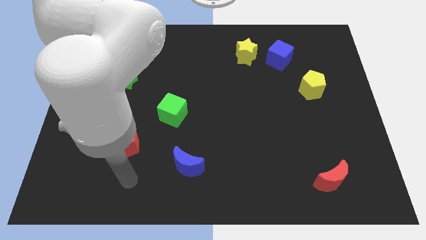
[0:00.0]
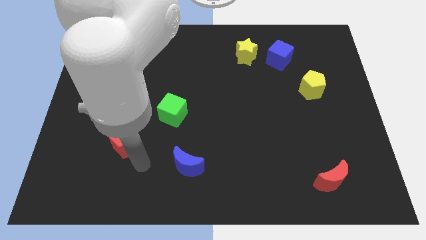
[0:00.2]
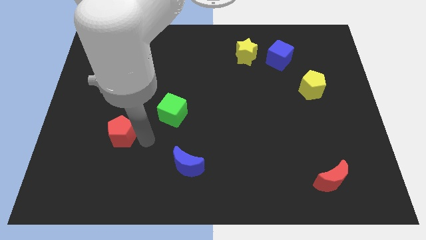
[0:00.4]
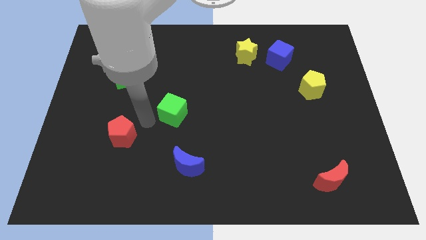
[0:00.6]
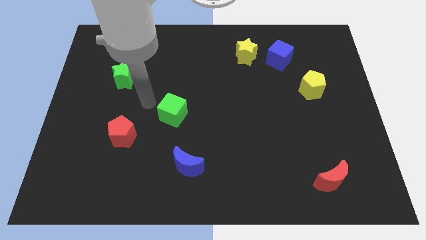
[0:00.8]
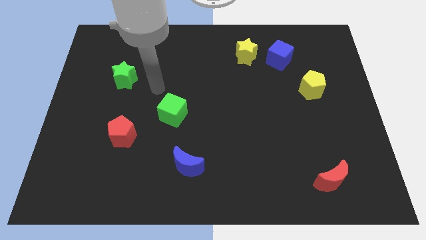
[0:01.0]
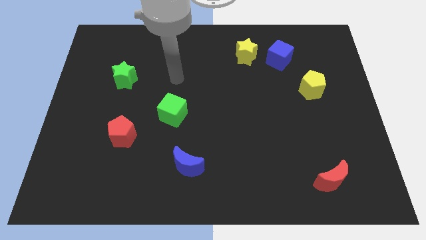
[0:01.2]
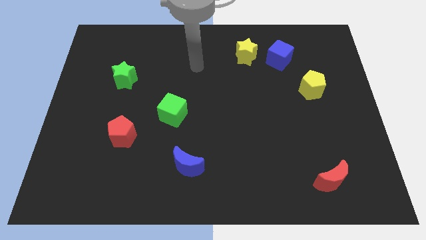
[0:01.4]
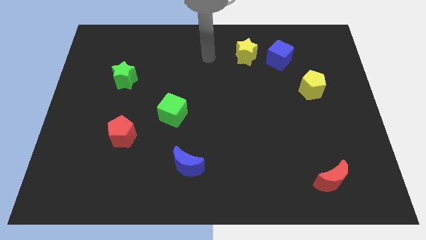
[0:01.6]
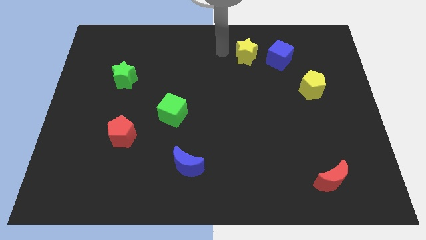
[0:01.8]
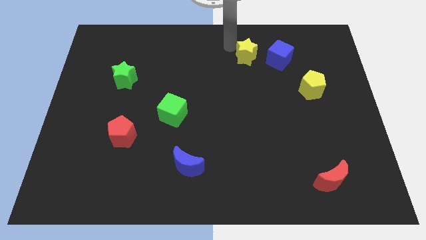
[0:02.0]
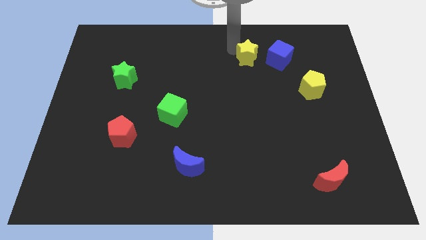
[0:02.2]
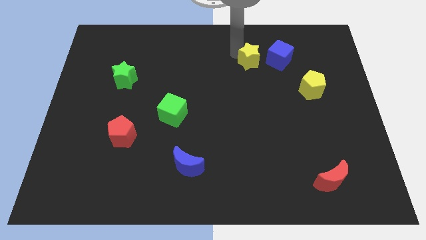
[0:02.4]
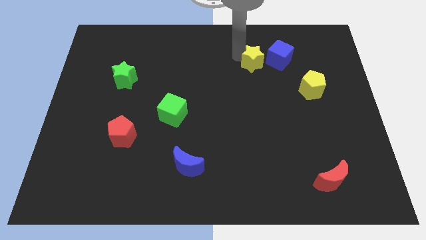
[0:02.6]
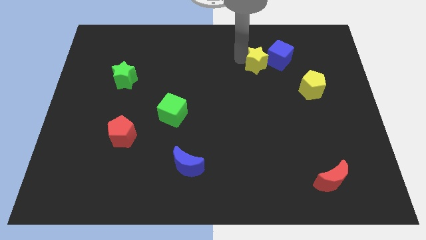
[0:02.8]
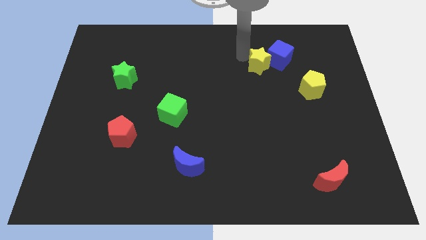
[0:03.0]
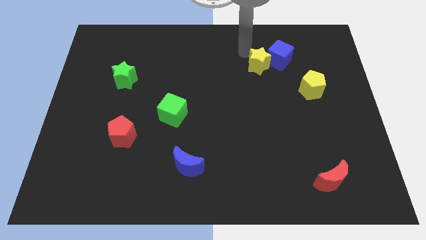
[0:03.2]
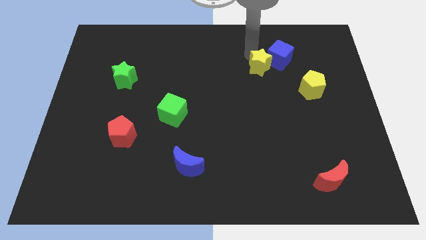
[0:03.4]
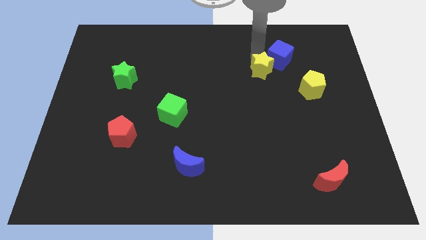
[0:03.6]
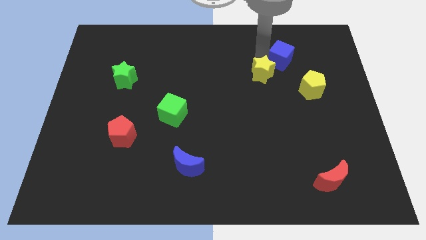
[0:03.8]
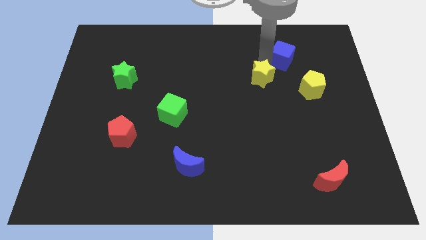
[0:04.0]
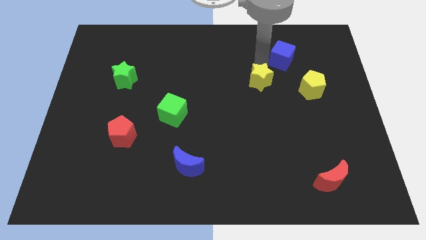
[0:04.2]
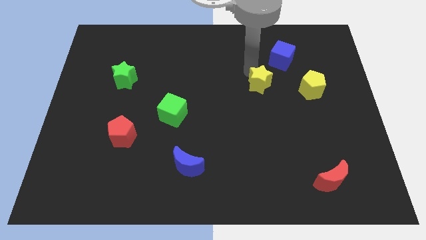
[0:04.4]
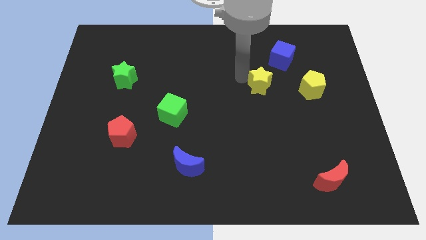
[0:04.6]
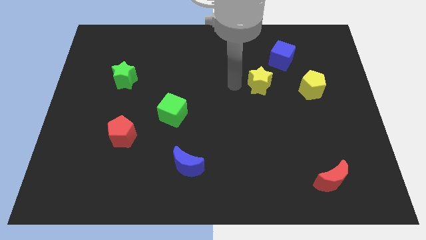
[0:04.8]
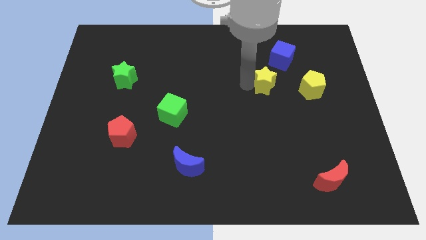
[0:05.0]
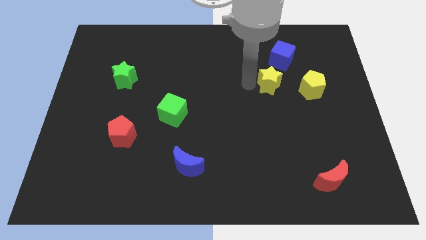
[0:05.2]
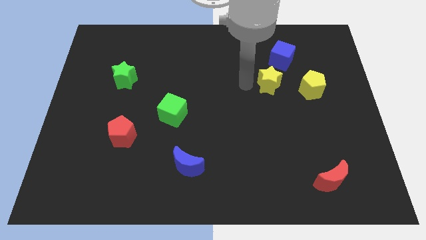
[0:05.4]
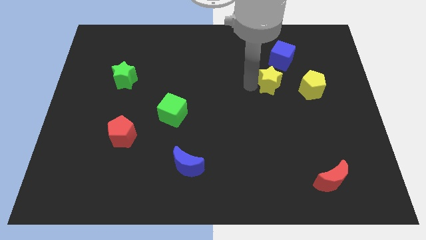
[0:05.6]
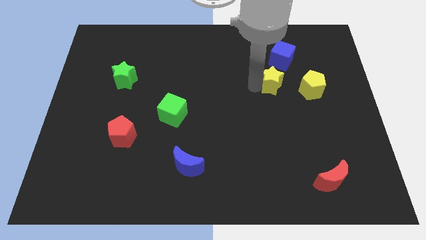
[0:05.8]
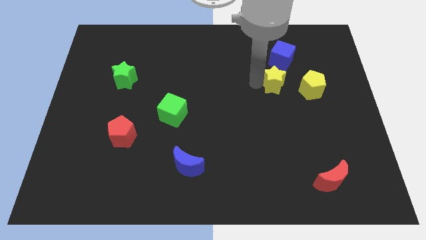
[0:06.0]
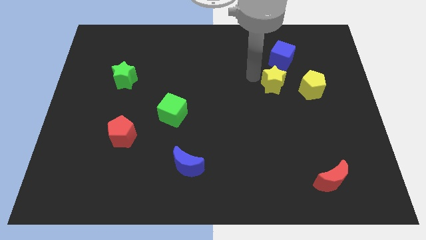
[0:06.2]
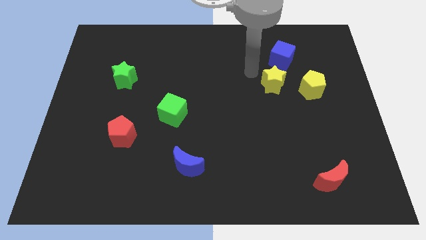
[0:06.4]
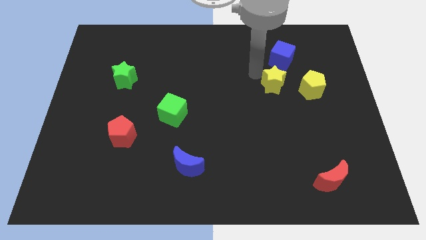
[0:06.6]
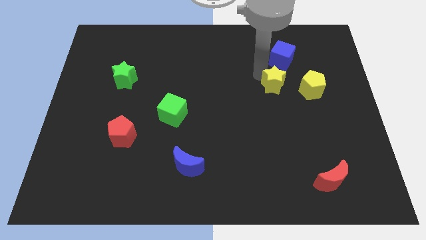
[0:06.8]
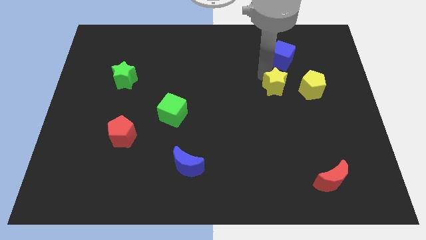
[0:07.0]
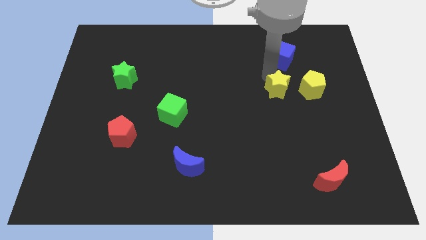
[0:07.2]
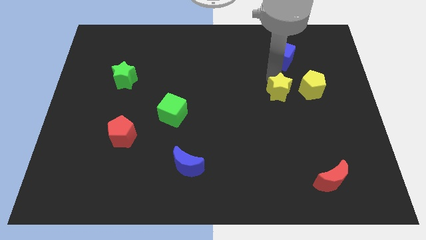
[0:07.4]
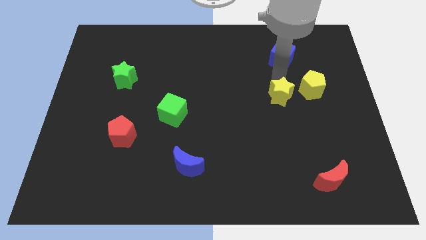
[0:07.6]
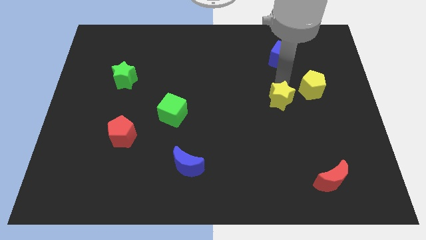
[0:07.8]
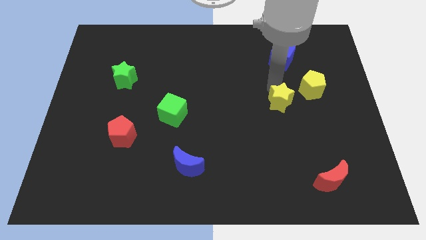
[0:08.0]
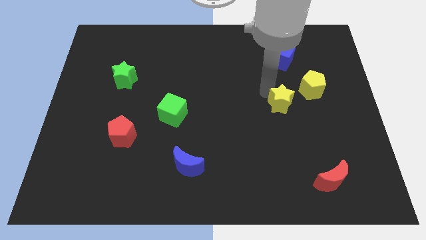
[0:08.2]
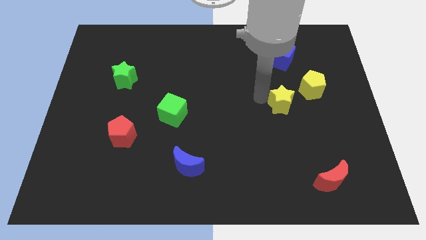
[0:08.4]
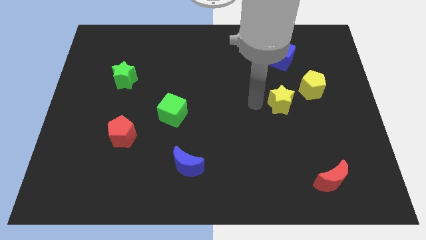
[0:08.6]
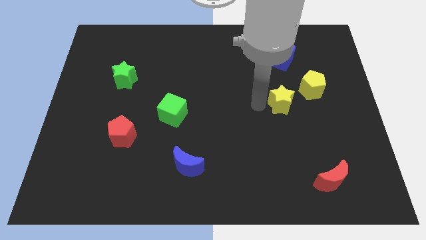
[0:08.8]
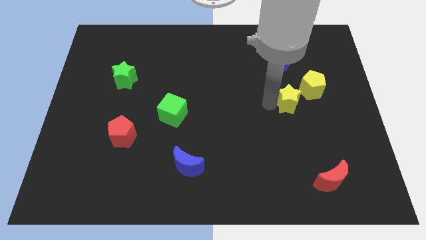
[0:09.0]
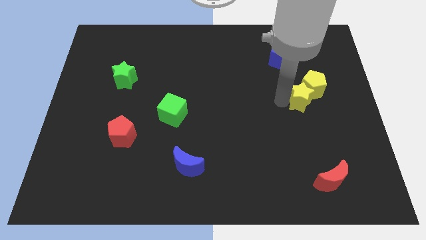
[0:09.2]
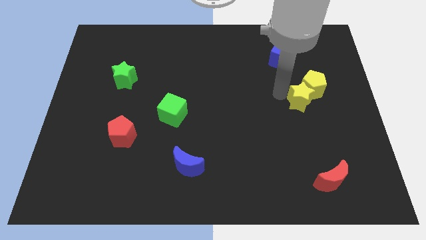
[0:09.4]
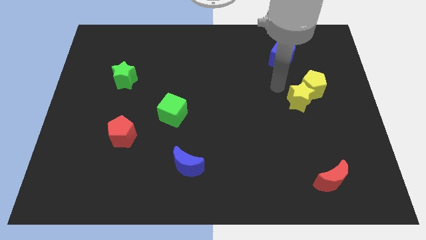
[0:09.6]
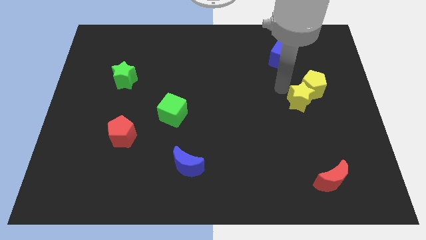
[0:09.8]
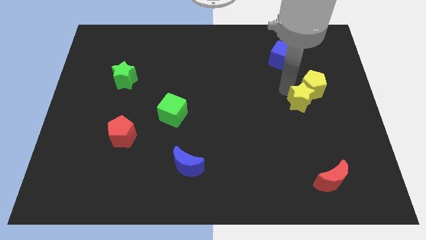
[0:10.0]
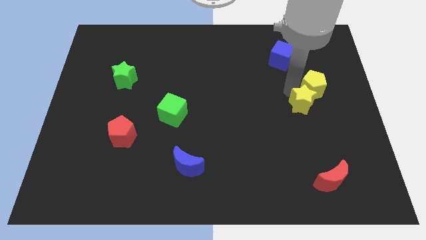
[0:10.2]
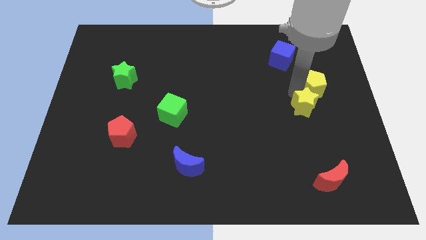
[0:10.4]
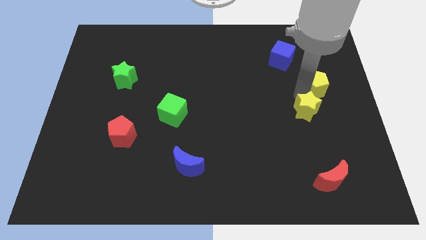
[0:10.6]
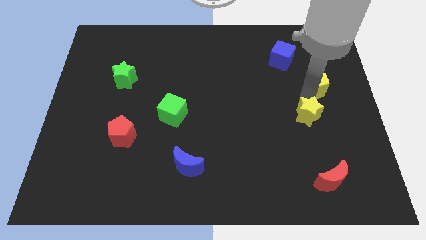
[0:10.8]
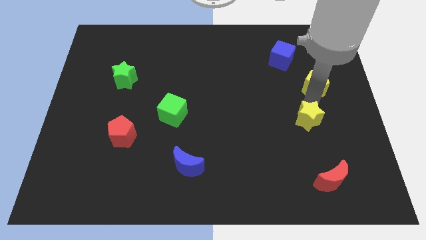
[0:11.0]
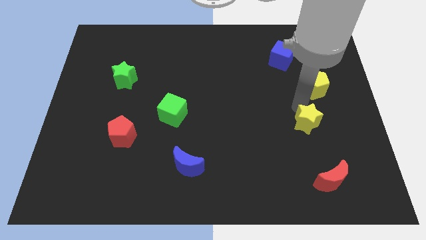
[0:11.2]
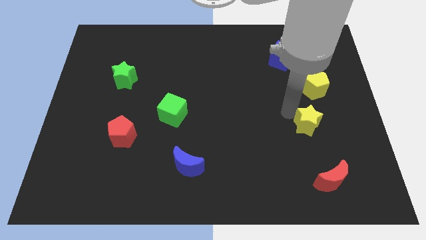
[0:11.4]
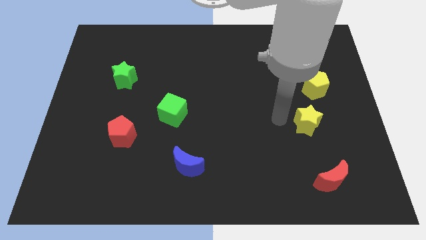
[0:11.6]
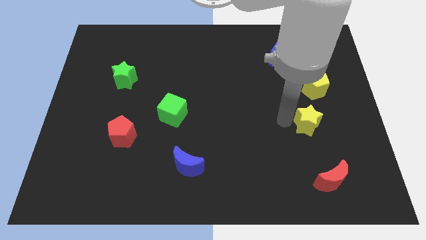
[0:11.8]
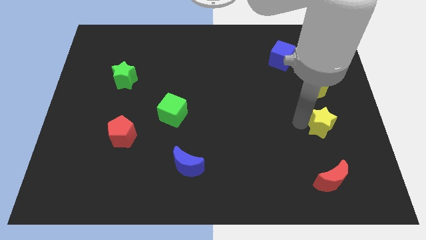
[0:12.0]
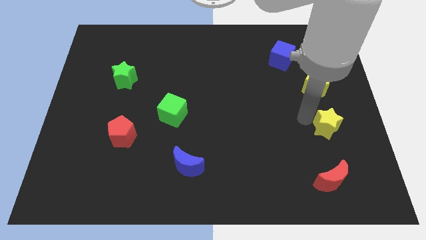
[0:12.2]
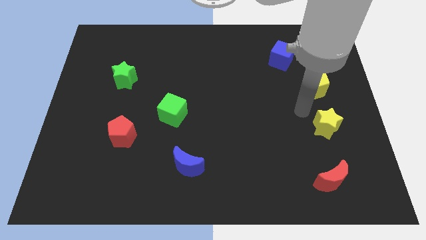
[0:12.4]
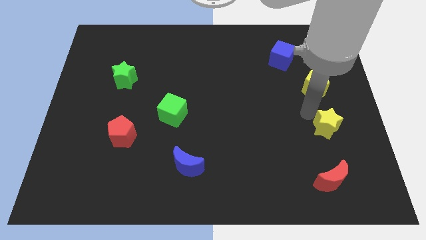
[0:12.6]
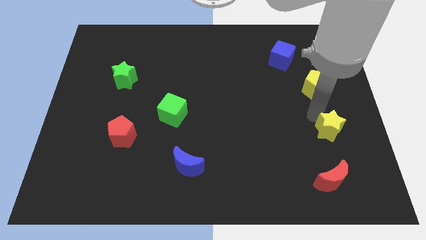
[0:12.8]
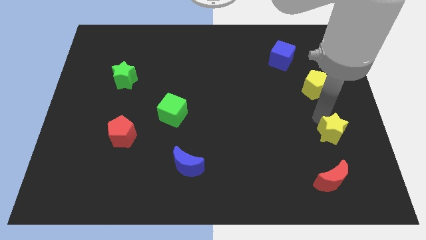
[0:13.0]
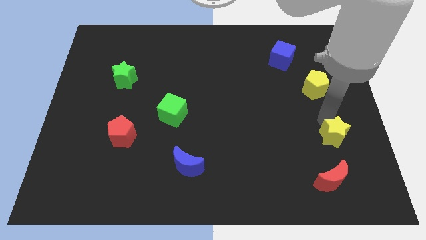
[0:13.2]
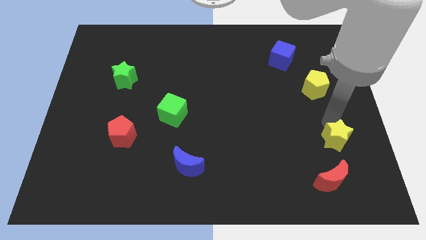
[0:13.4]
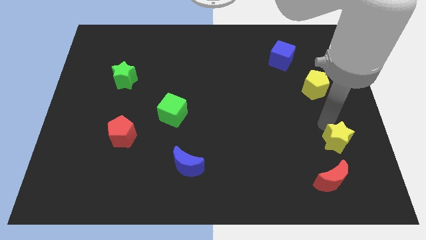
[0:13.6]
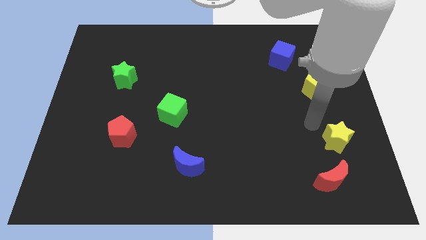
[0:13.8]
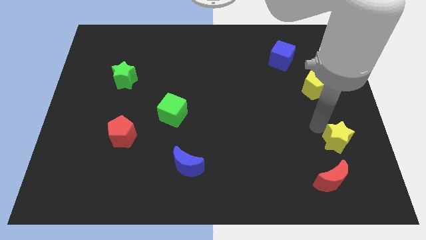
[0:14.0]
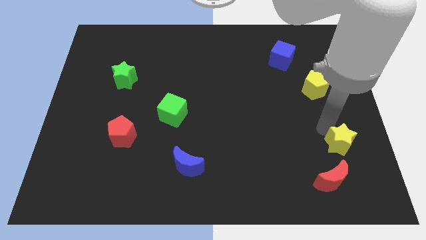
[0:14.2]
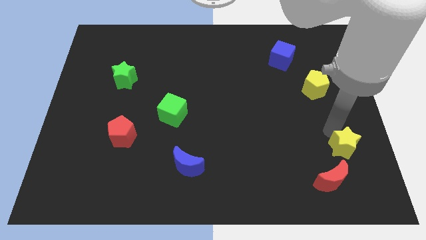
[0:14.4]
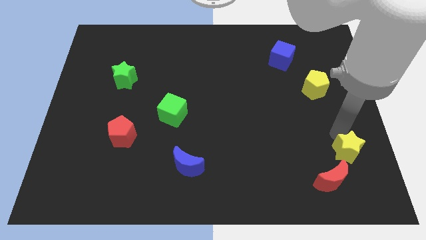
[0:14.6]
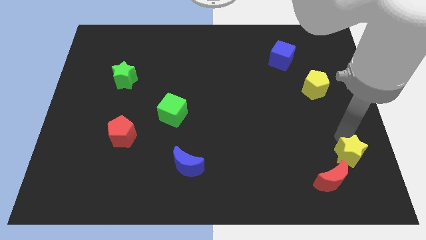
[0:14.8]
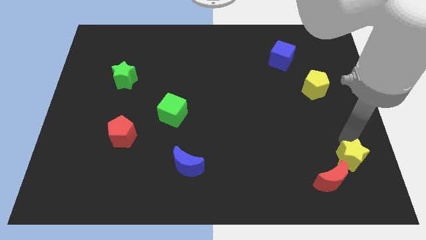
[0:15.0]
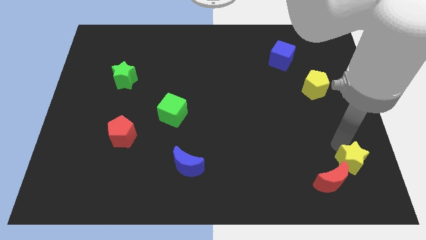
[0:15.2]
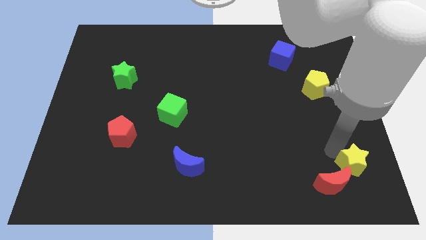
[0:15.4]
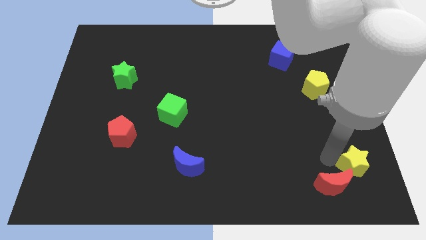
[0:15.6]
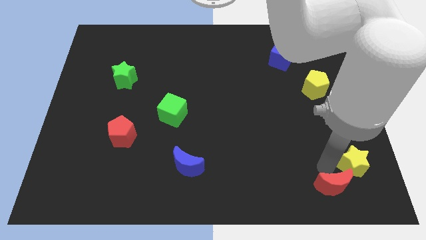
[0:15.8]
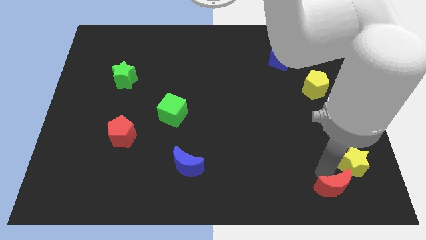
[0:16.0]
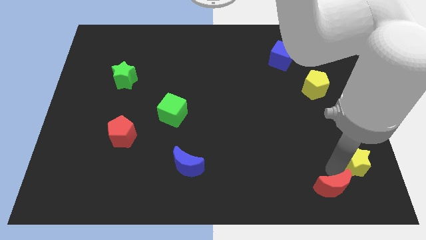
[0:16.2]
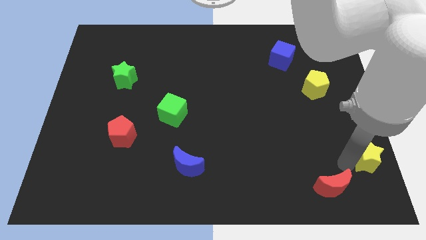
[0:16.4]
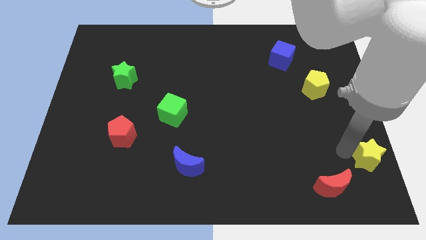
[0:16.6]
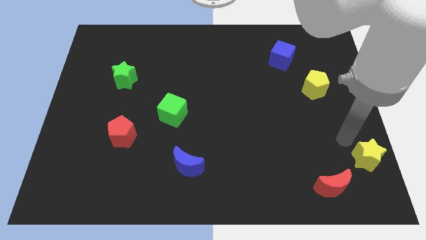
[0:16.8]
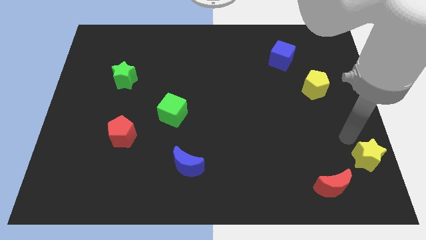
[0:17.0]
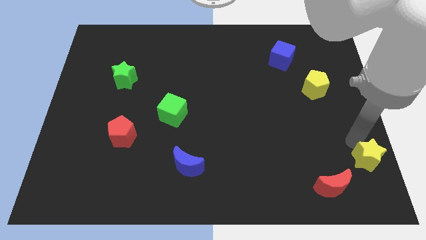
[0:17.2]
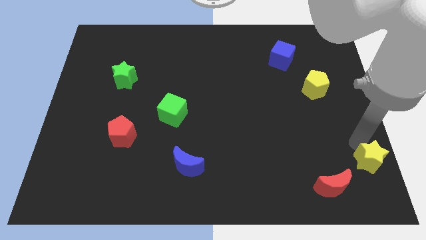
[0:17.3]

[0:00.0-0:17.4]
move the yellow star to the lower right corner
